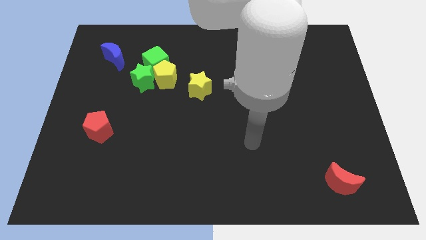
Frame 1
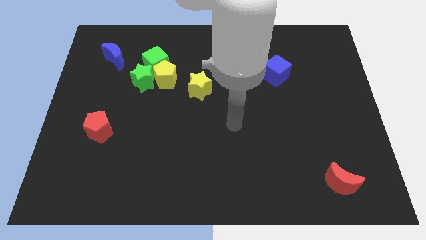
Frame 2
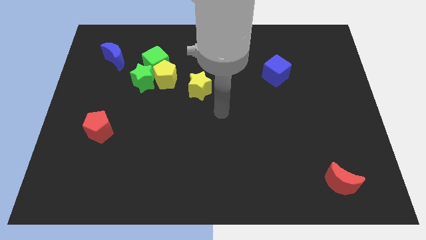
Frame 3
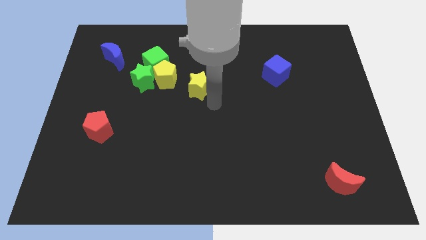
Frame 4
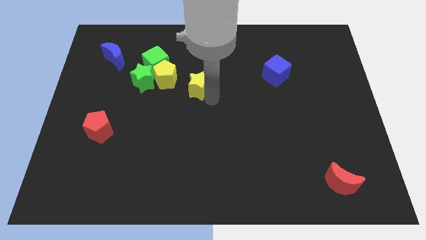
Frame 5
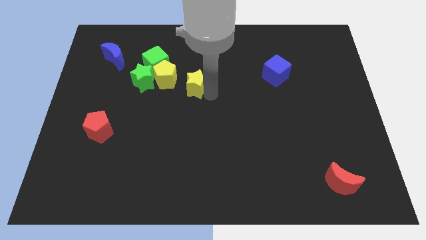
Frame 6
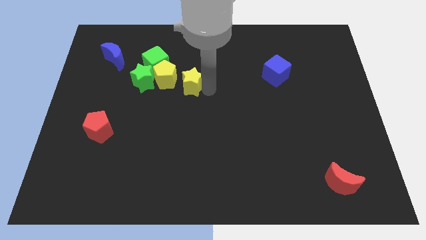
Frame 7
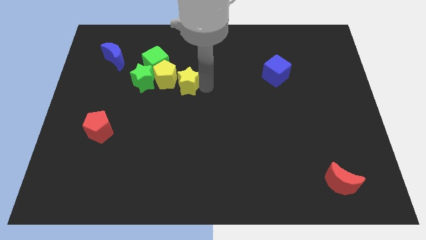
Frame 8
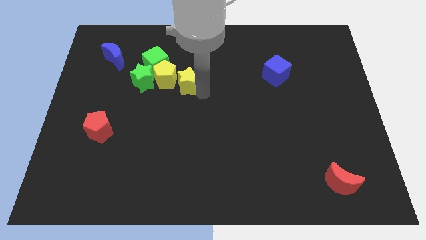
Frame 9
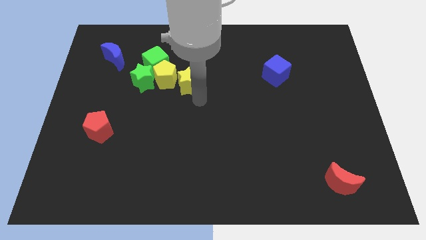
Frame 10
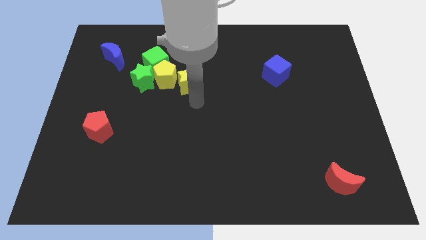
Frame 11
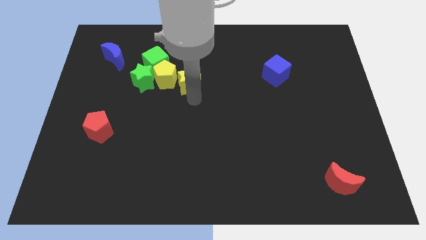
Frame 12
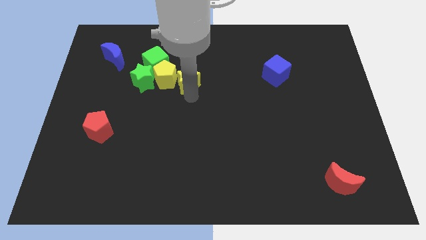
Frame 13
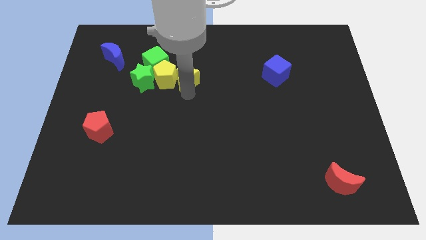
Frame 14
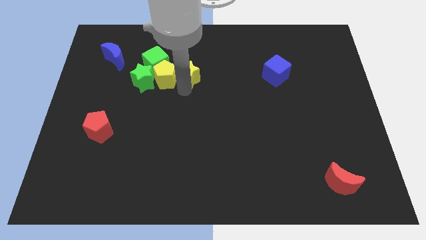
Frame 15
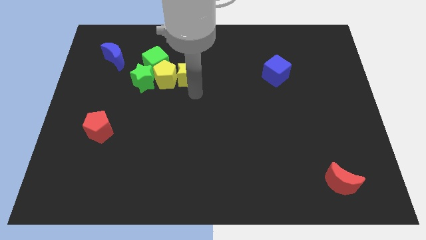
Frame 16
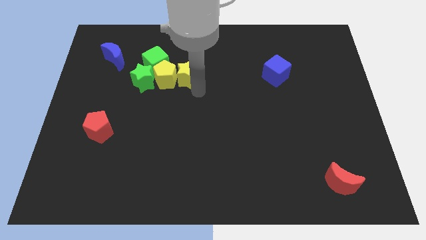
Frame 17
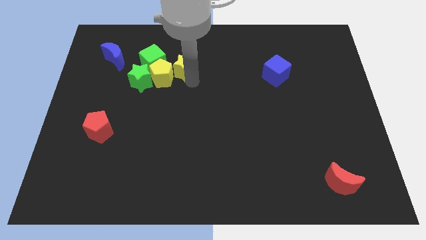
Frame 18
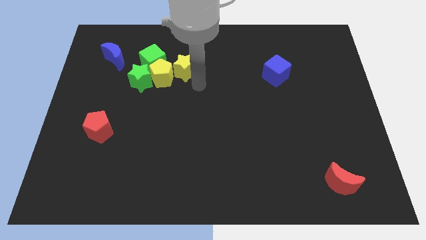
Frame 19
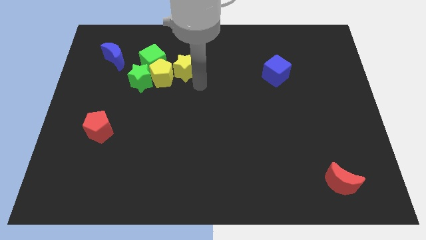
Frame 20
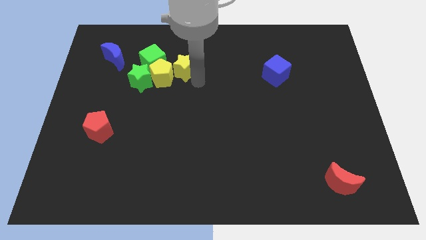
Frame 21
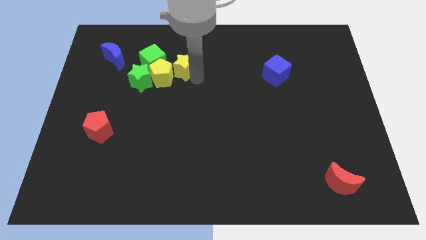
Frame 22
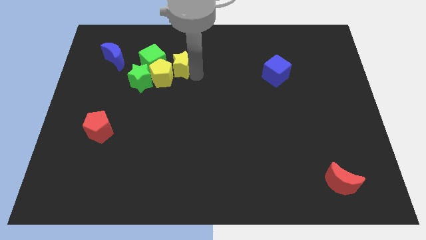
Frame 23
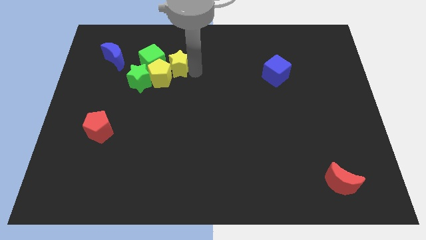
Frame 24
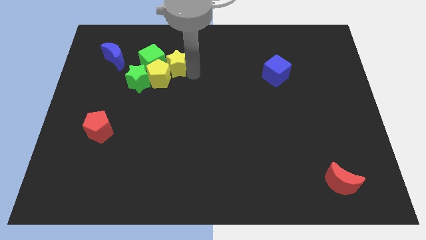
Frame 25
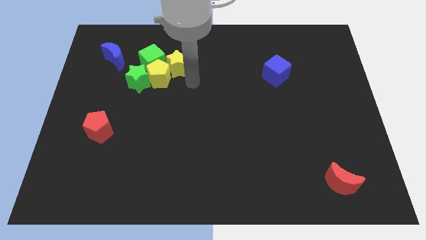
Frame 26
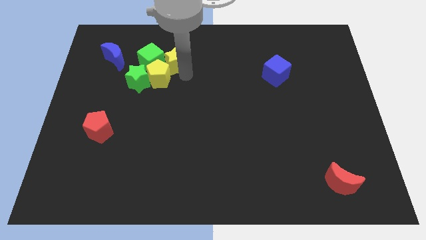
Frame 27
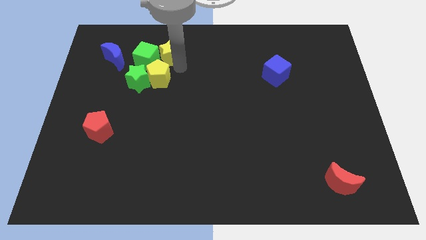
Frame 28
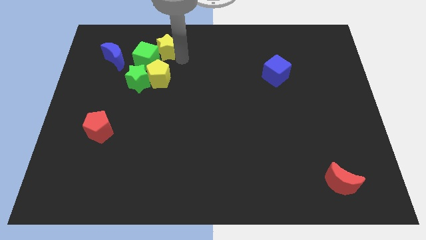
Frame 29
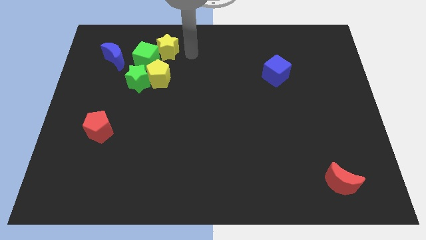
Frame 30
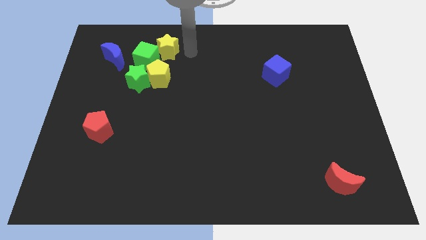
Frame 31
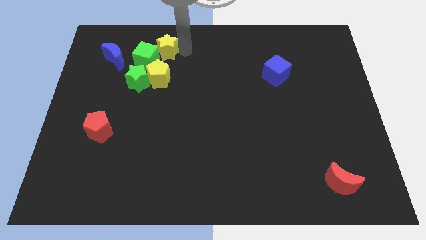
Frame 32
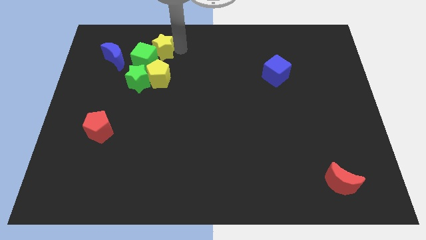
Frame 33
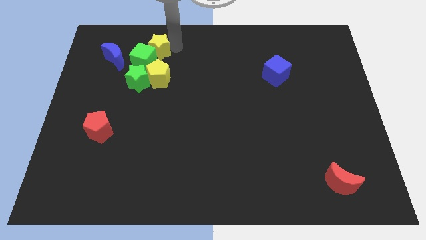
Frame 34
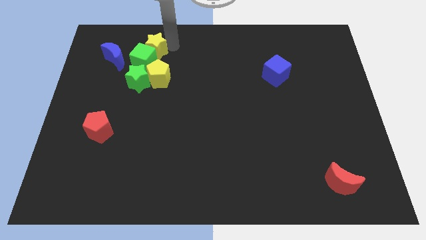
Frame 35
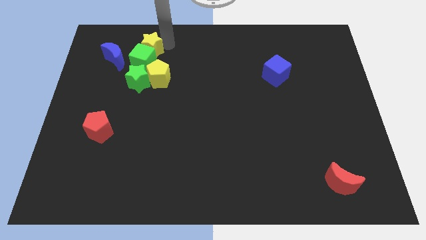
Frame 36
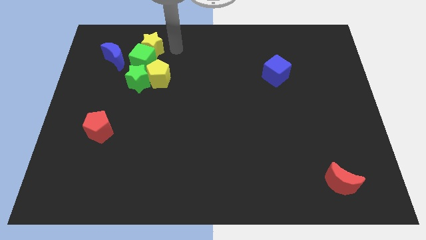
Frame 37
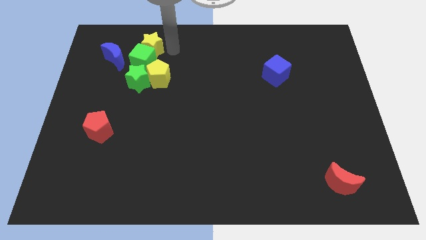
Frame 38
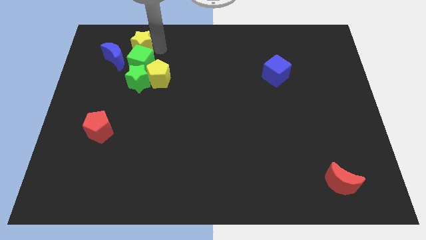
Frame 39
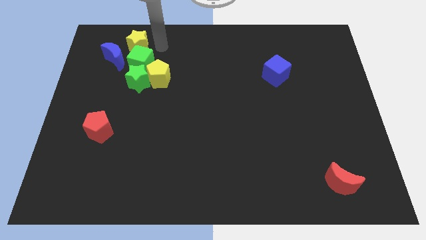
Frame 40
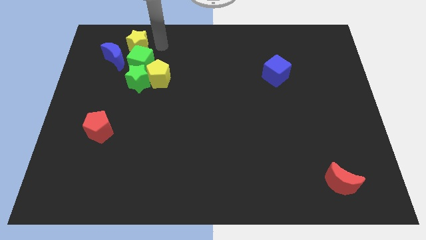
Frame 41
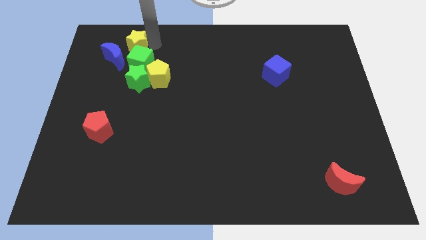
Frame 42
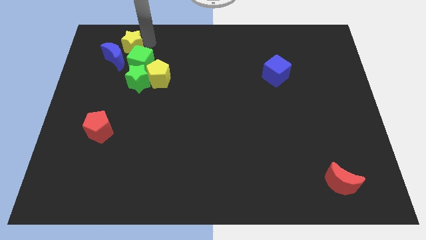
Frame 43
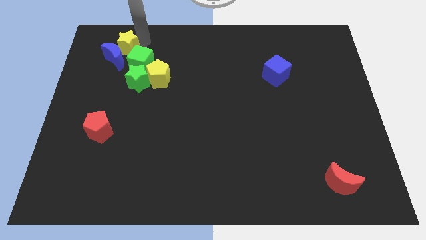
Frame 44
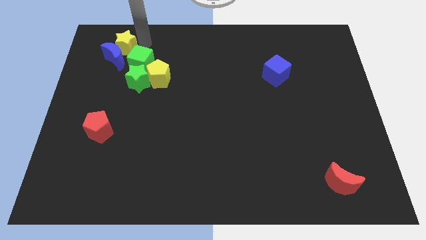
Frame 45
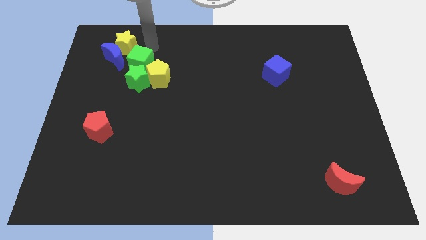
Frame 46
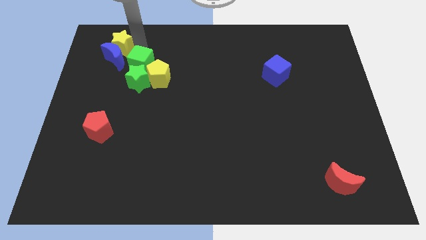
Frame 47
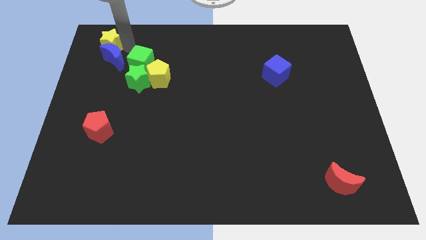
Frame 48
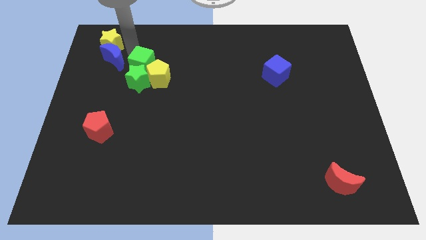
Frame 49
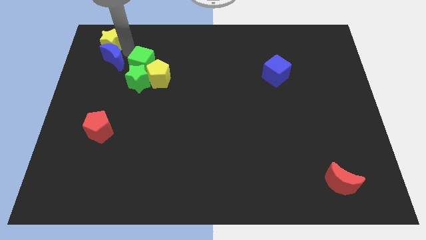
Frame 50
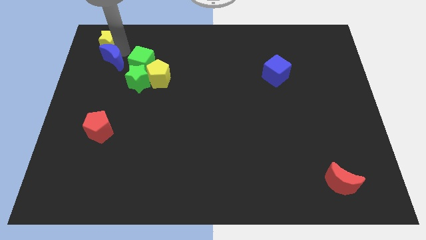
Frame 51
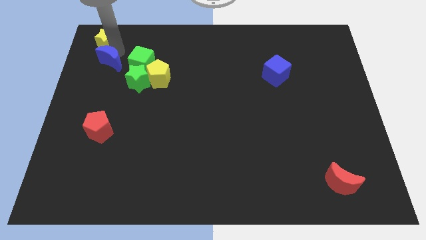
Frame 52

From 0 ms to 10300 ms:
push the yellow star to the top left of the board
